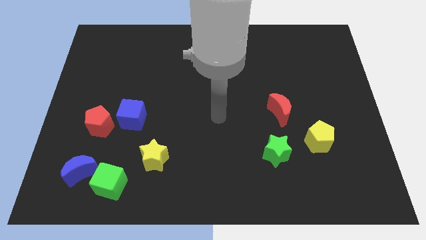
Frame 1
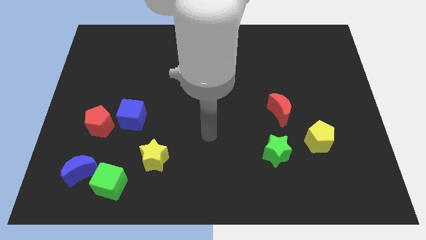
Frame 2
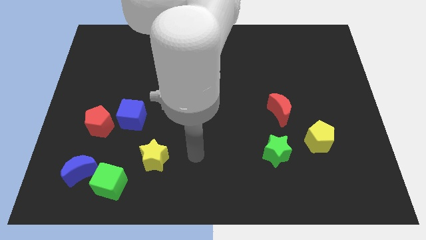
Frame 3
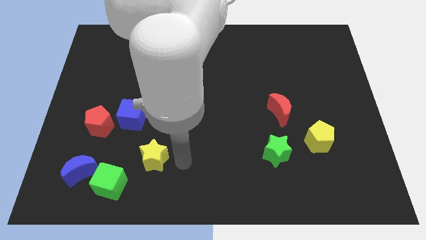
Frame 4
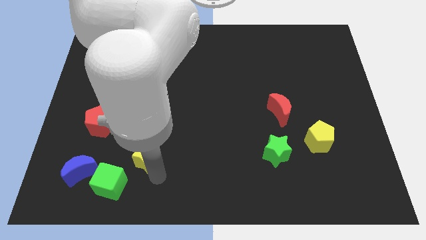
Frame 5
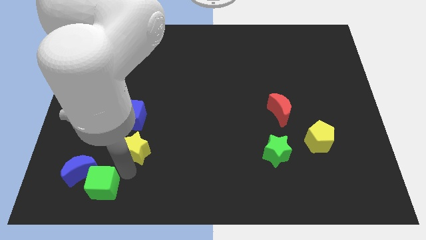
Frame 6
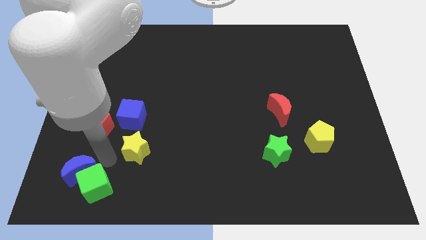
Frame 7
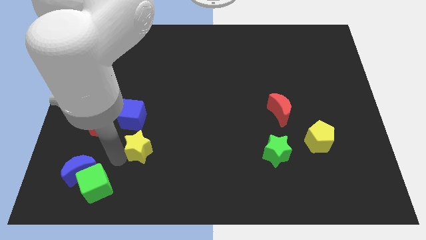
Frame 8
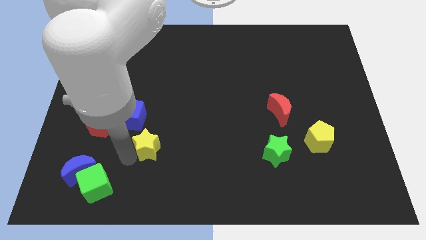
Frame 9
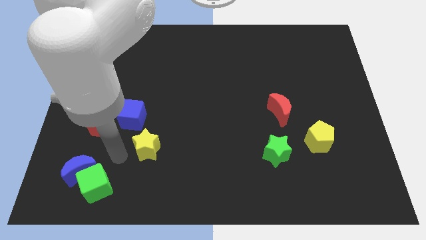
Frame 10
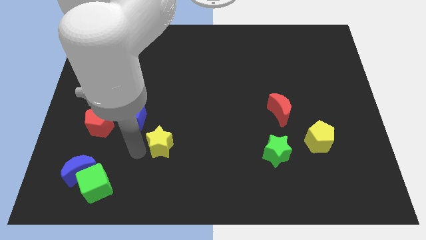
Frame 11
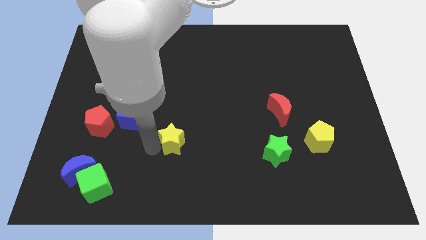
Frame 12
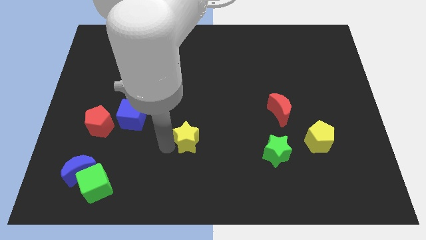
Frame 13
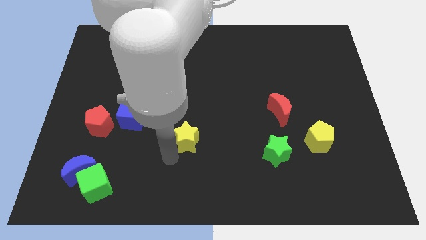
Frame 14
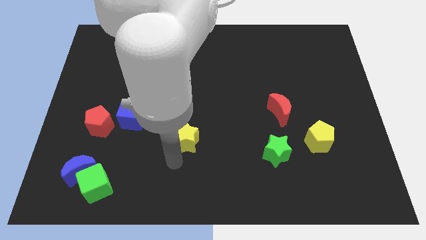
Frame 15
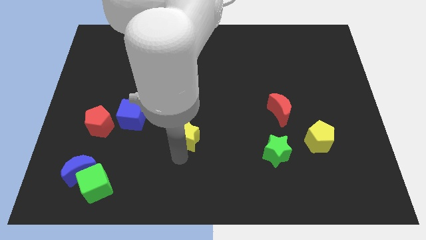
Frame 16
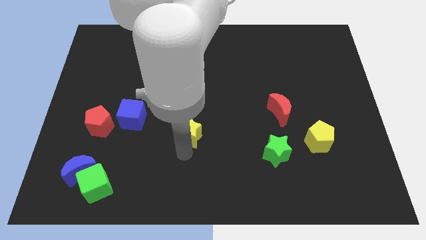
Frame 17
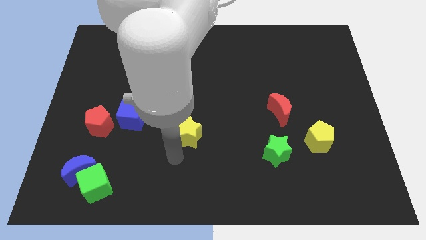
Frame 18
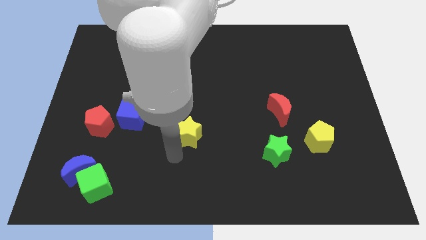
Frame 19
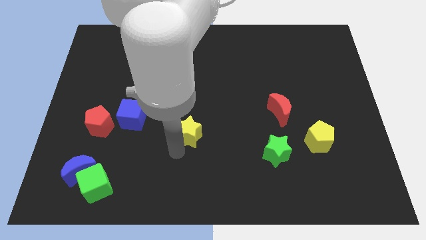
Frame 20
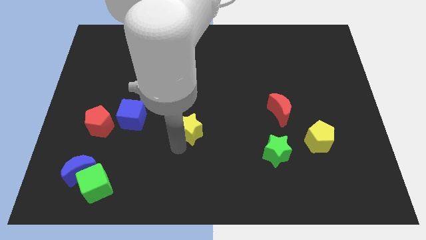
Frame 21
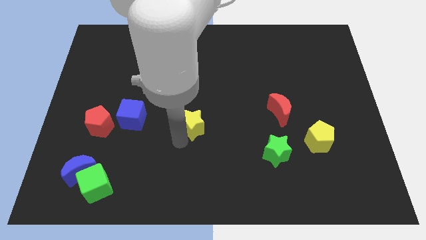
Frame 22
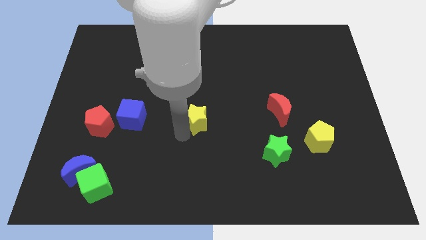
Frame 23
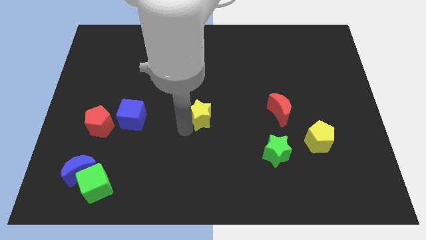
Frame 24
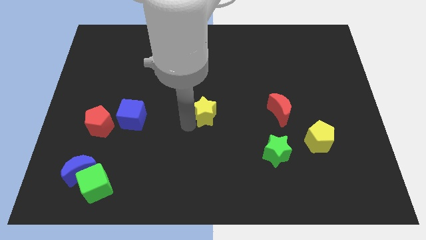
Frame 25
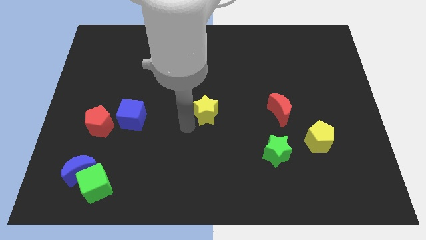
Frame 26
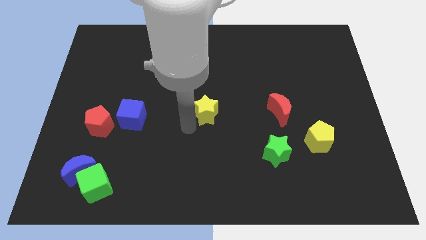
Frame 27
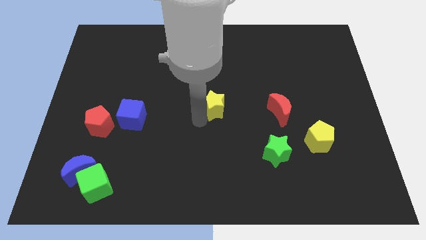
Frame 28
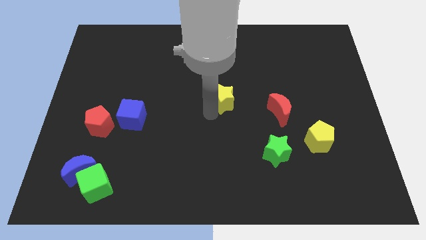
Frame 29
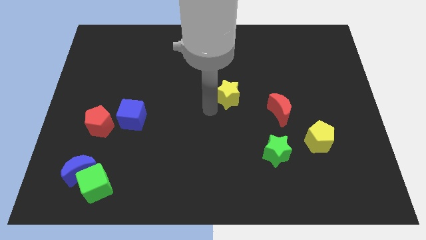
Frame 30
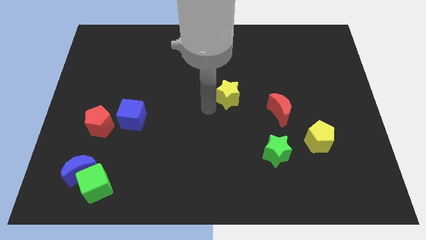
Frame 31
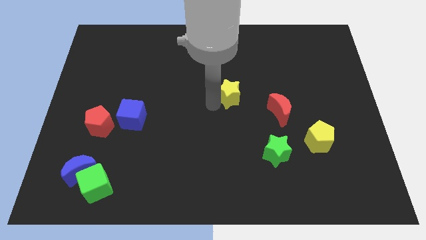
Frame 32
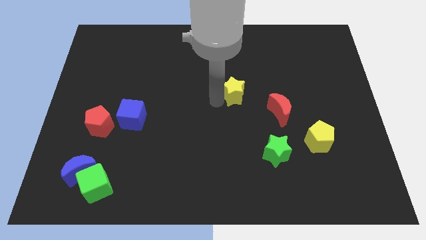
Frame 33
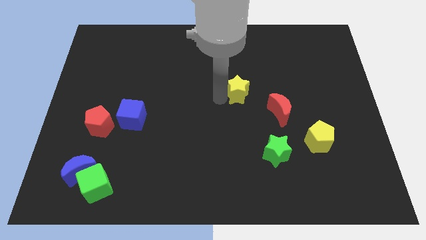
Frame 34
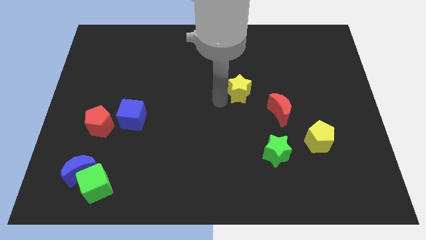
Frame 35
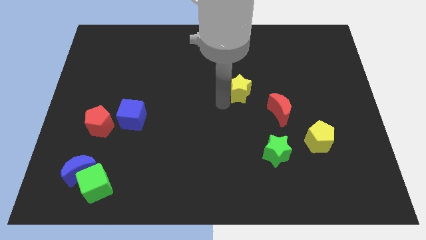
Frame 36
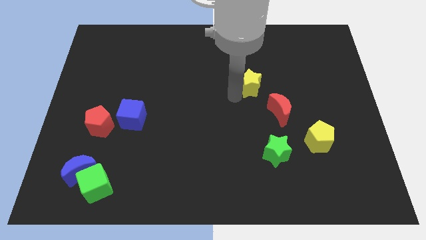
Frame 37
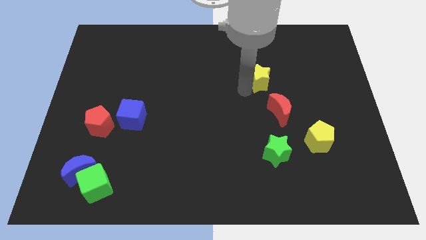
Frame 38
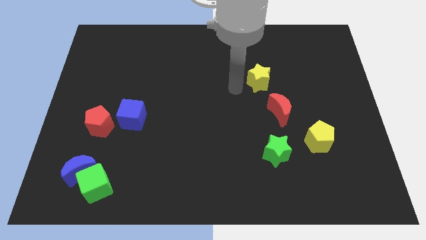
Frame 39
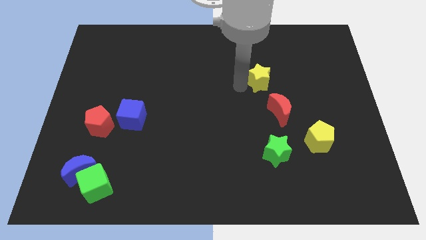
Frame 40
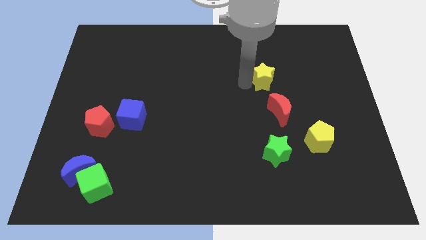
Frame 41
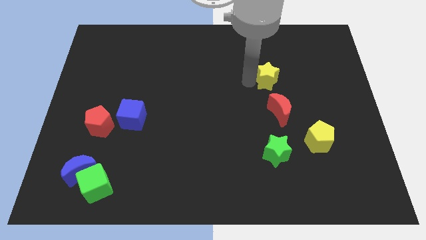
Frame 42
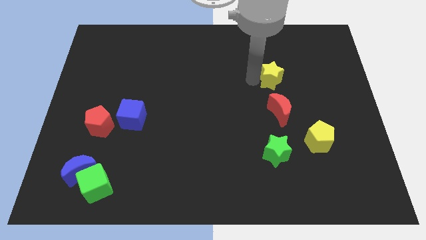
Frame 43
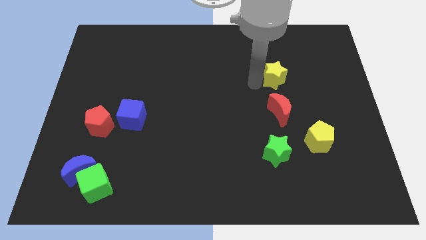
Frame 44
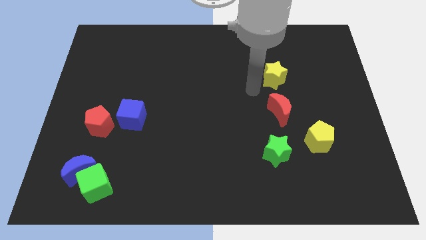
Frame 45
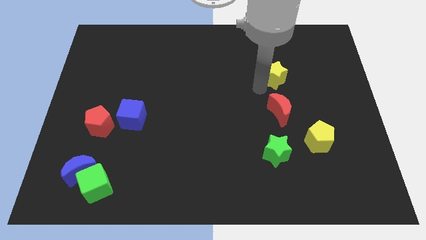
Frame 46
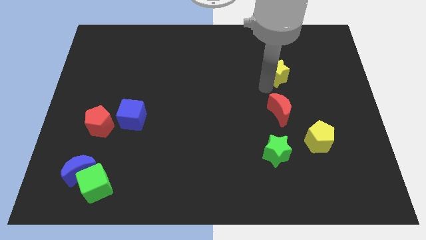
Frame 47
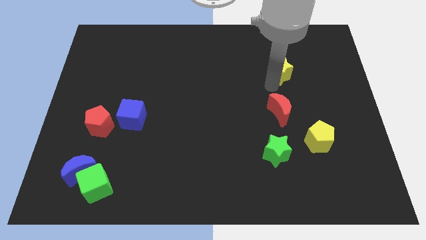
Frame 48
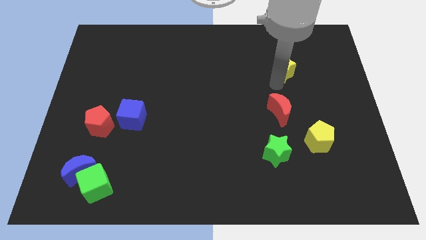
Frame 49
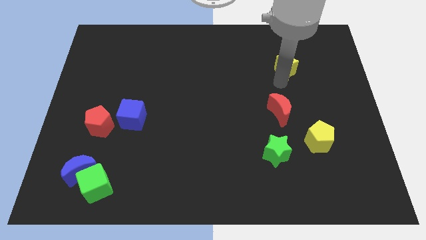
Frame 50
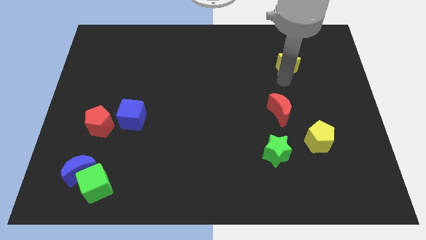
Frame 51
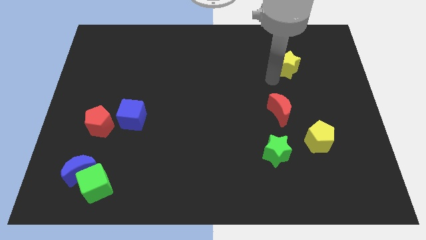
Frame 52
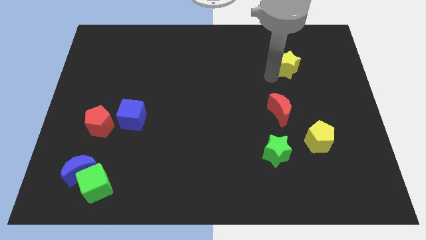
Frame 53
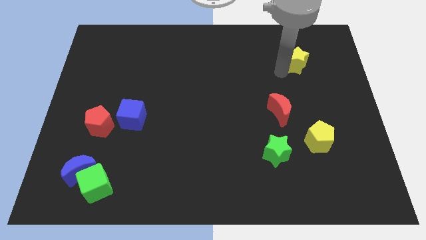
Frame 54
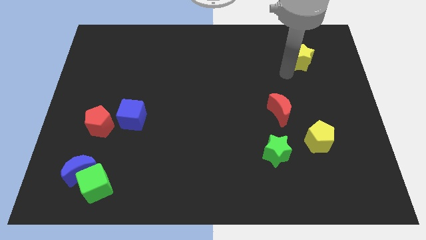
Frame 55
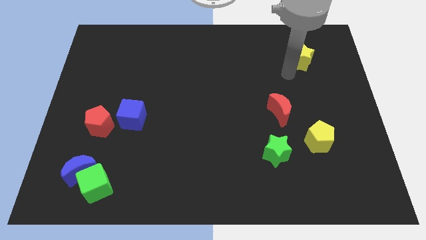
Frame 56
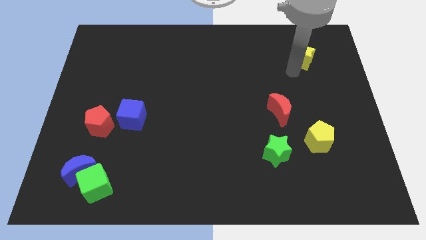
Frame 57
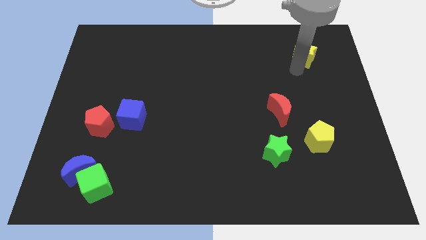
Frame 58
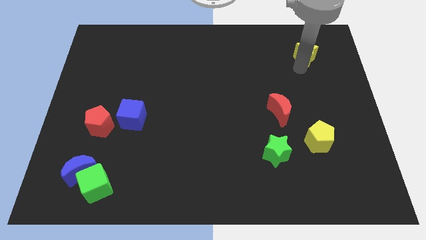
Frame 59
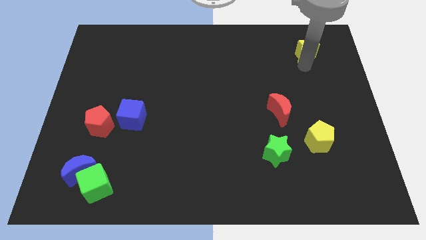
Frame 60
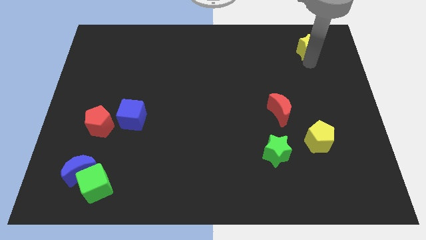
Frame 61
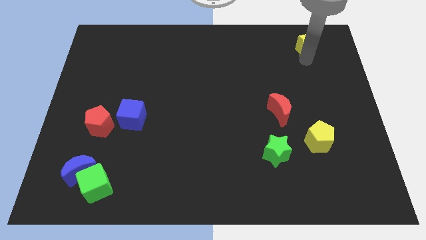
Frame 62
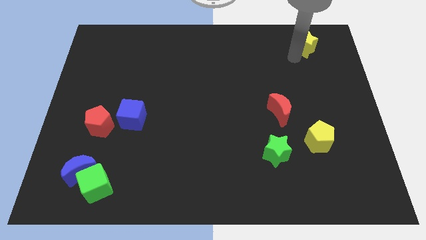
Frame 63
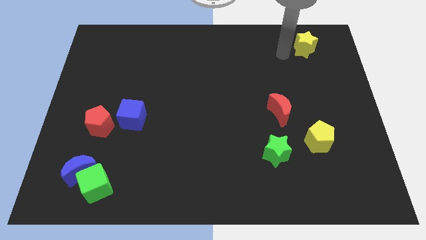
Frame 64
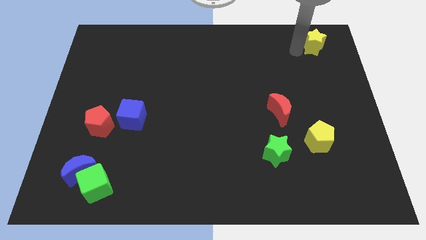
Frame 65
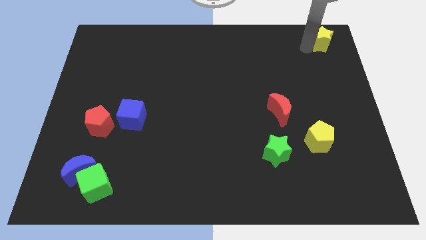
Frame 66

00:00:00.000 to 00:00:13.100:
move the yellow star to the upper right corner
